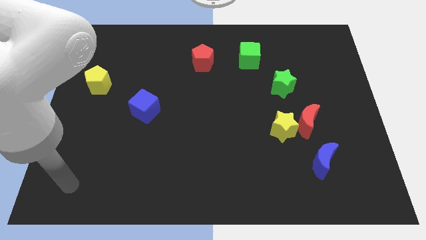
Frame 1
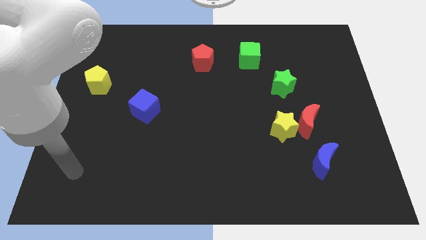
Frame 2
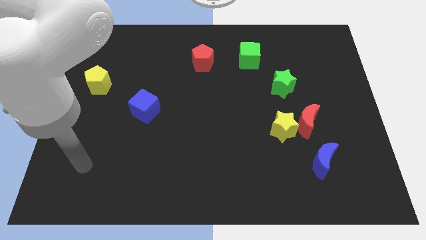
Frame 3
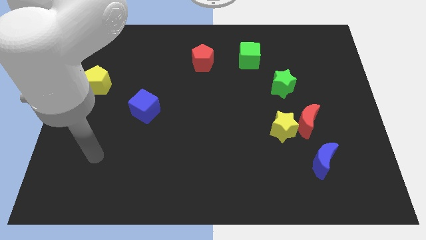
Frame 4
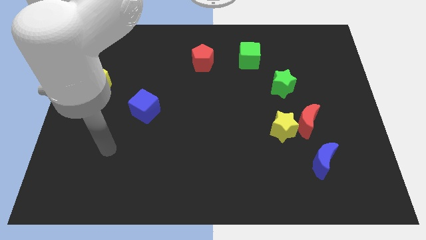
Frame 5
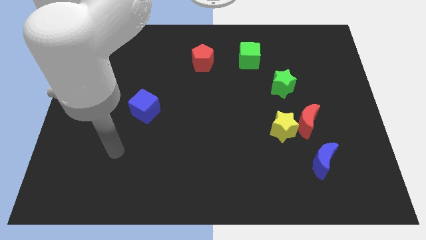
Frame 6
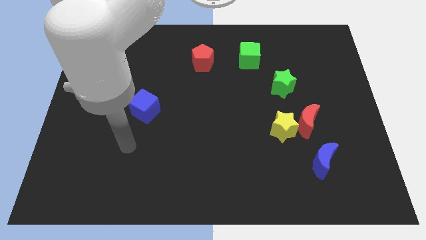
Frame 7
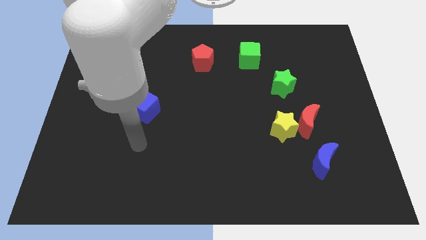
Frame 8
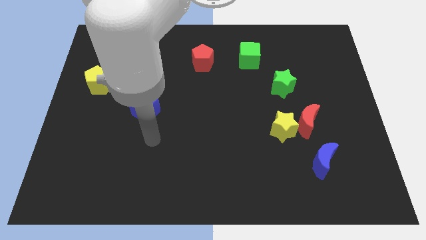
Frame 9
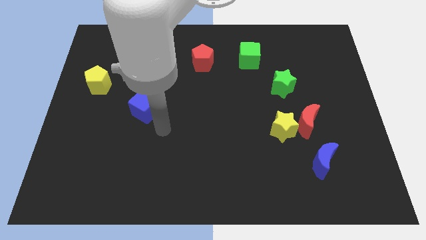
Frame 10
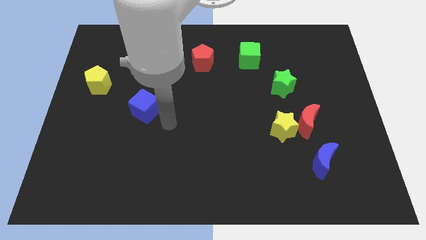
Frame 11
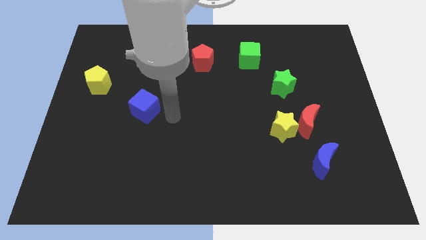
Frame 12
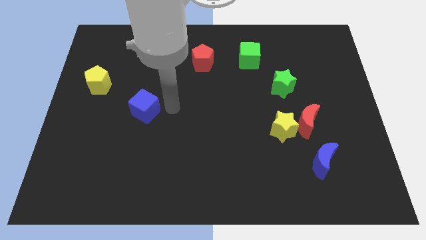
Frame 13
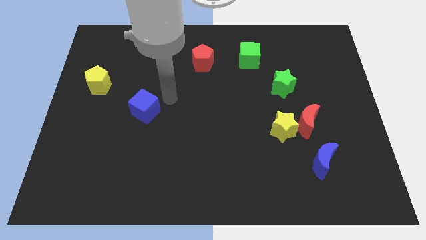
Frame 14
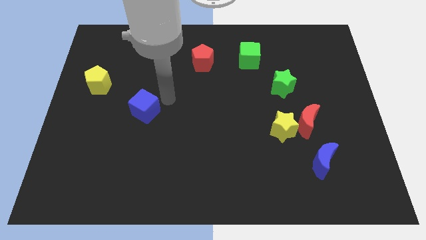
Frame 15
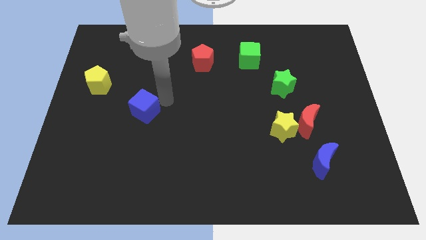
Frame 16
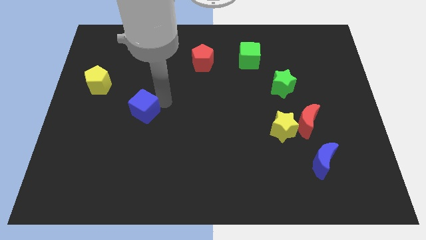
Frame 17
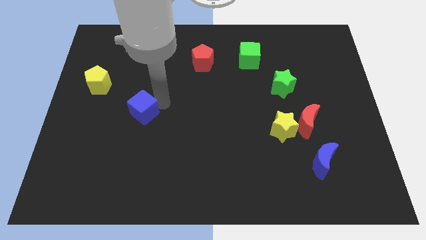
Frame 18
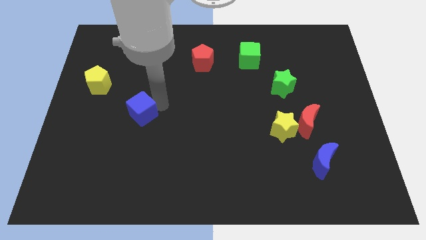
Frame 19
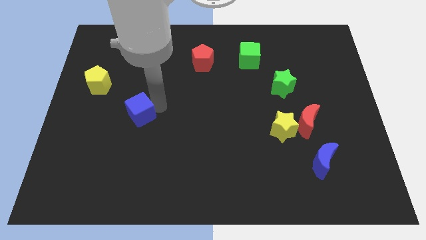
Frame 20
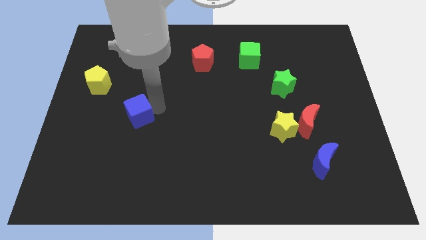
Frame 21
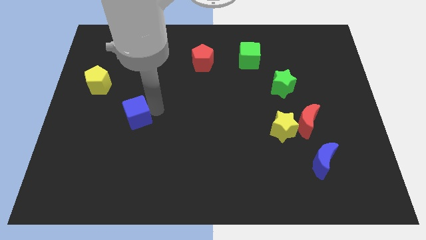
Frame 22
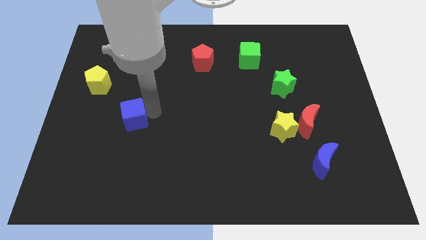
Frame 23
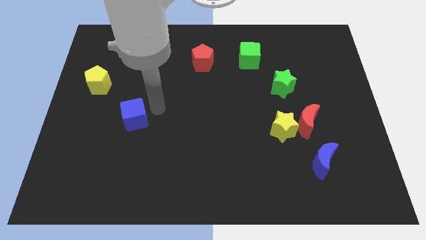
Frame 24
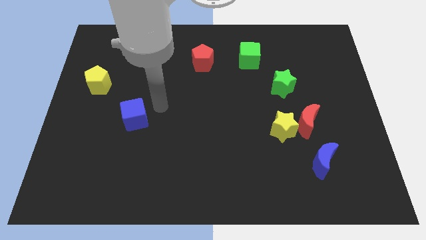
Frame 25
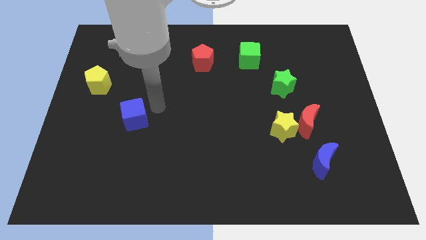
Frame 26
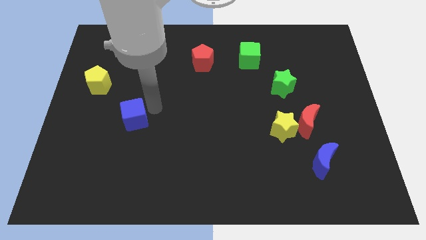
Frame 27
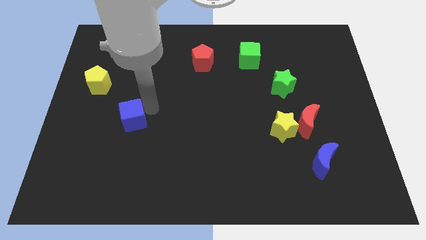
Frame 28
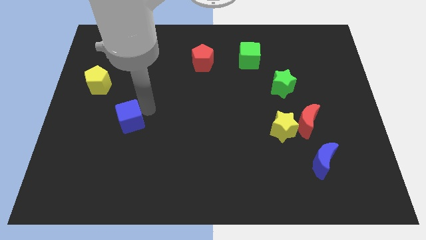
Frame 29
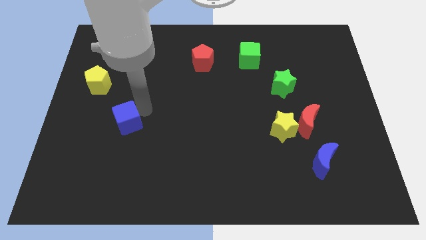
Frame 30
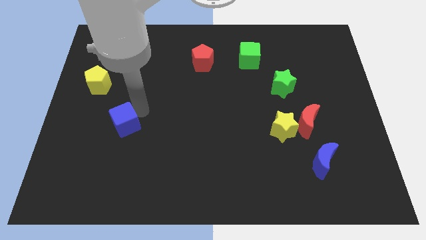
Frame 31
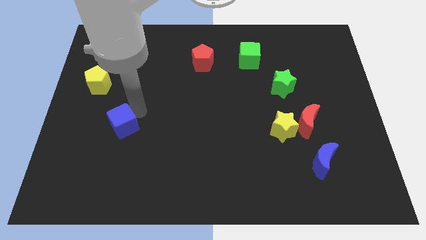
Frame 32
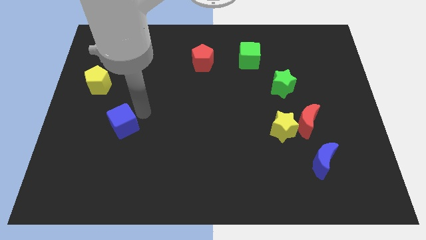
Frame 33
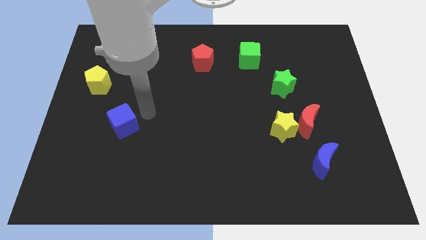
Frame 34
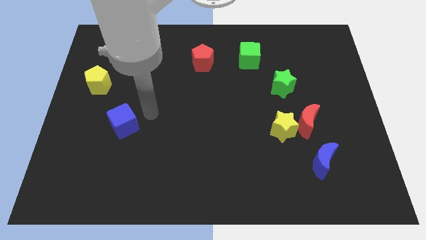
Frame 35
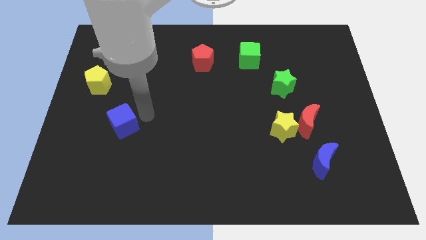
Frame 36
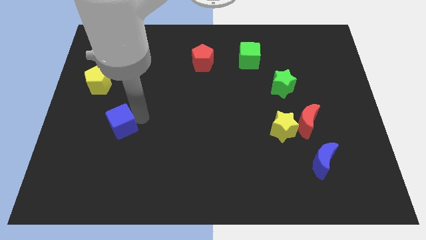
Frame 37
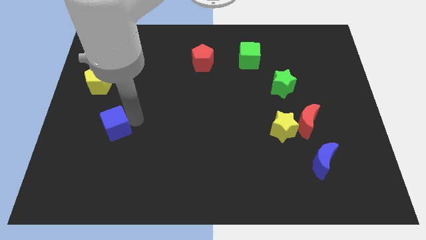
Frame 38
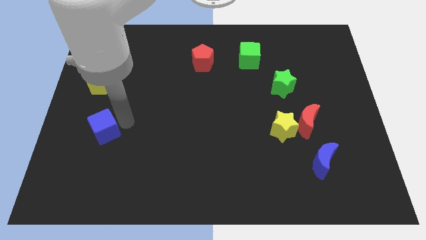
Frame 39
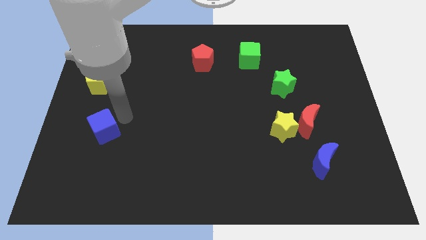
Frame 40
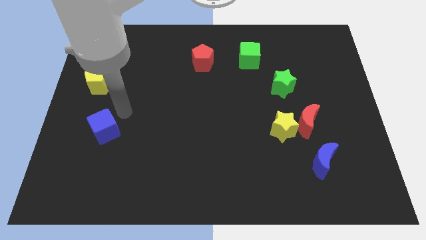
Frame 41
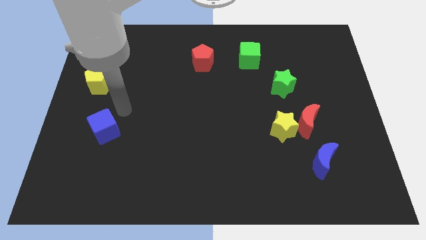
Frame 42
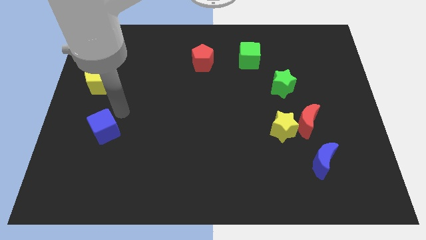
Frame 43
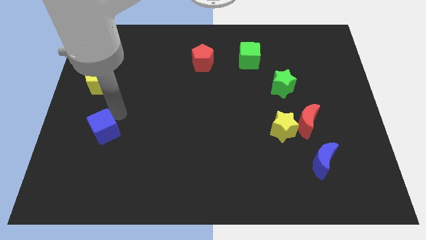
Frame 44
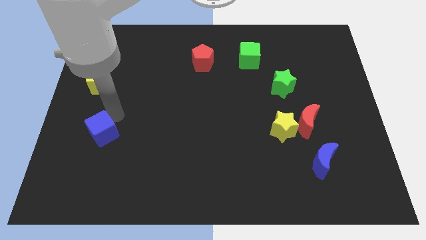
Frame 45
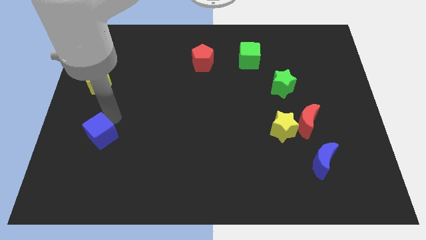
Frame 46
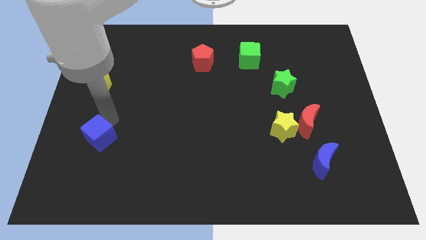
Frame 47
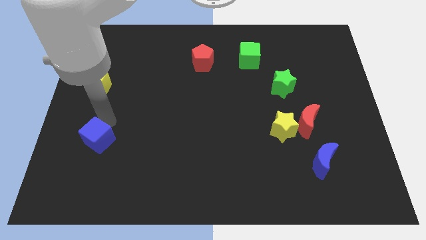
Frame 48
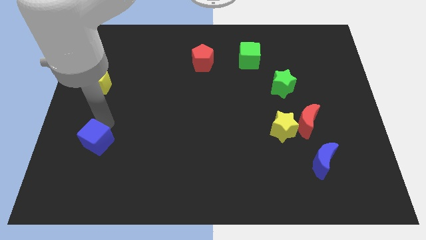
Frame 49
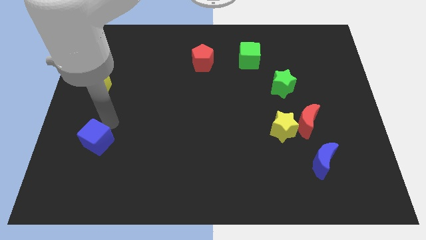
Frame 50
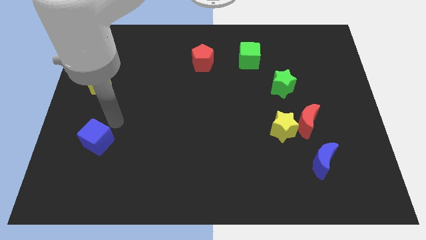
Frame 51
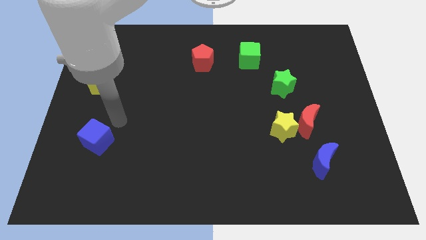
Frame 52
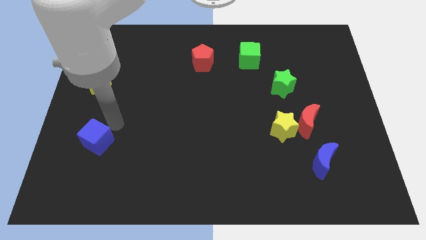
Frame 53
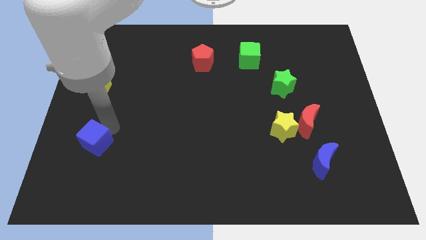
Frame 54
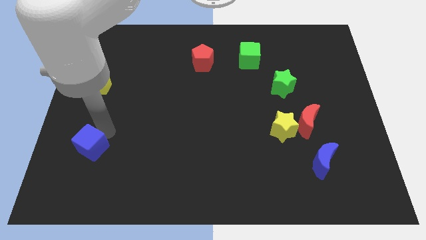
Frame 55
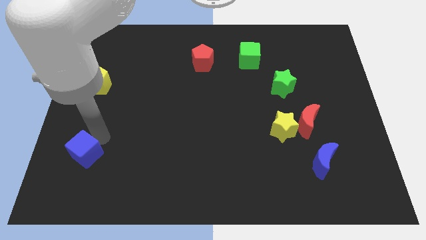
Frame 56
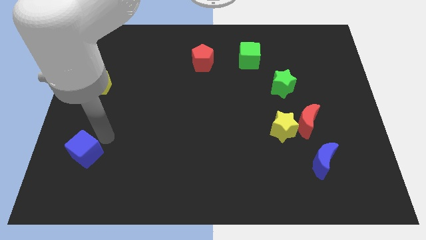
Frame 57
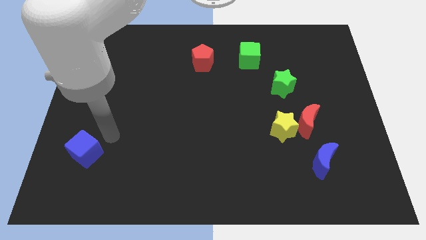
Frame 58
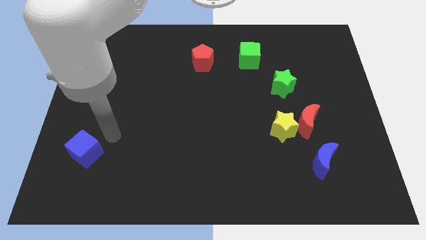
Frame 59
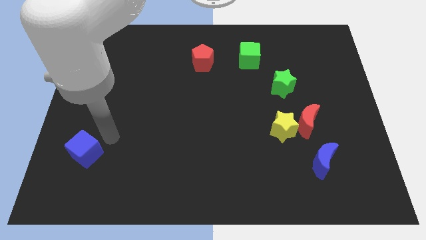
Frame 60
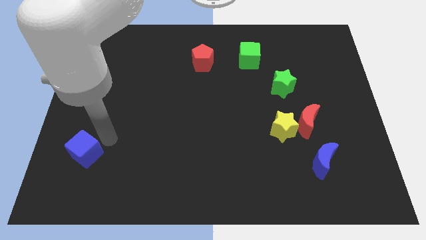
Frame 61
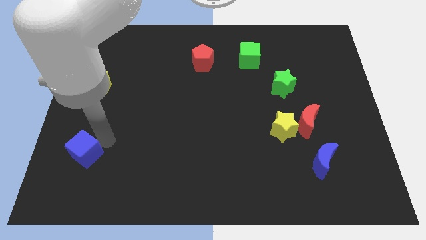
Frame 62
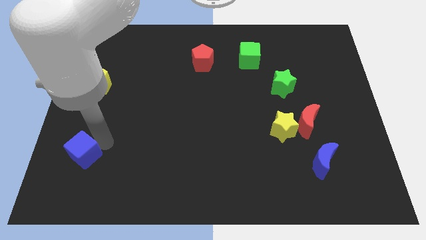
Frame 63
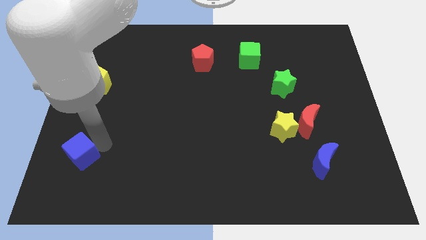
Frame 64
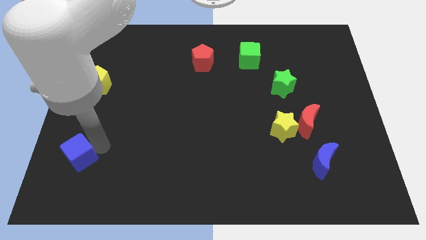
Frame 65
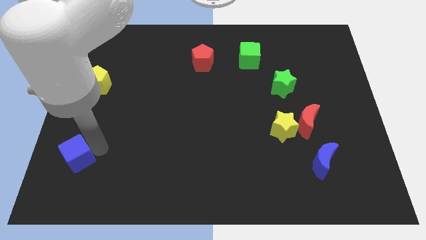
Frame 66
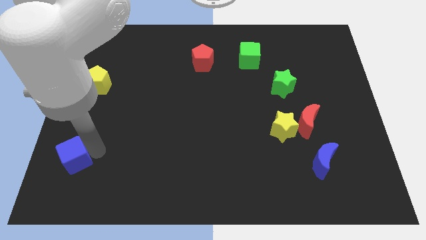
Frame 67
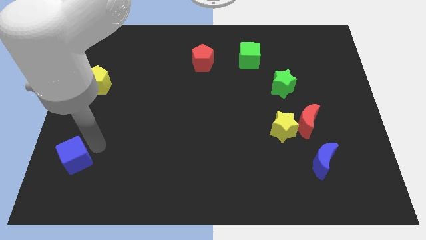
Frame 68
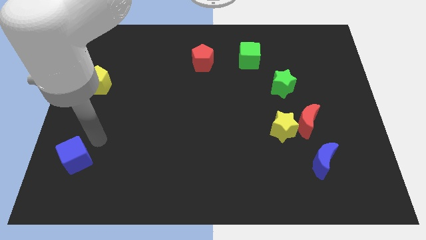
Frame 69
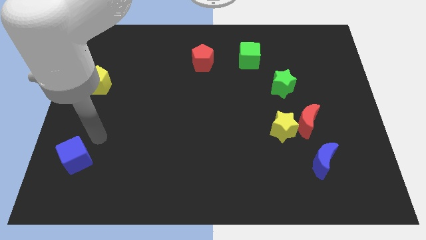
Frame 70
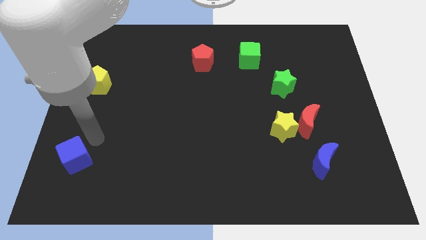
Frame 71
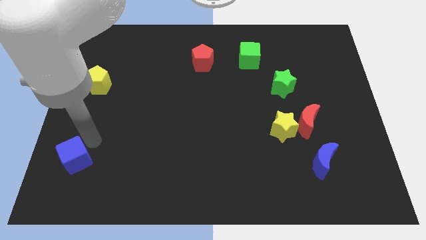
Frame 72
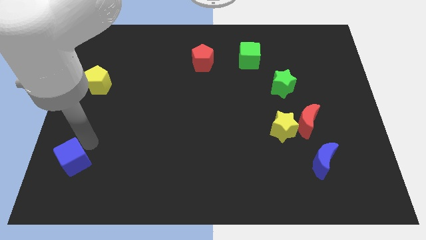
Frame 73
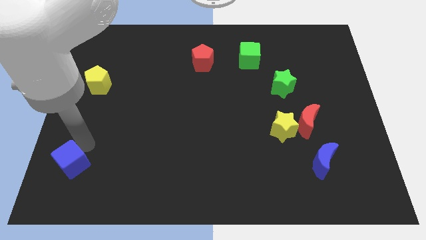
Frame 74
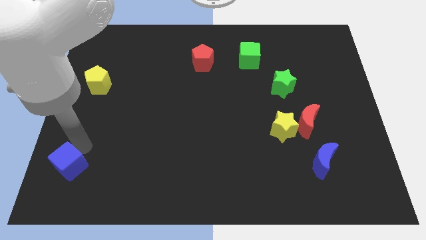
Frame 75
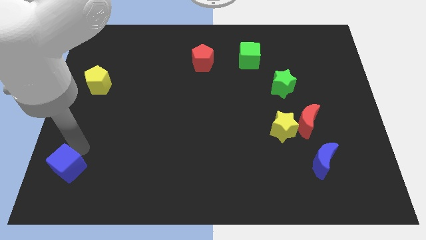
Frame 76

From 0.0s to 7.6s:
move the blue cube to the bottom left of the board
